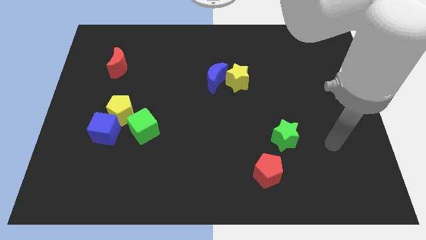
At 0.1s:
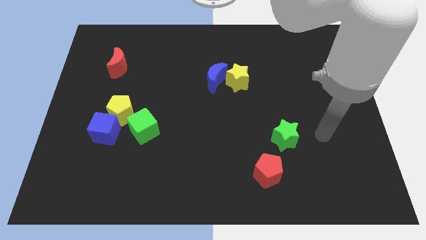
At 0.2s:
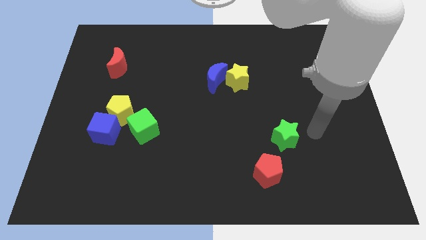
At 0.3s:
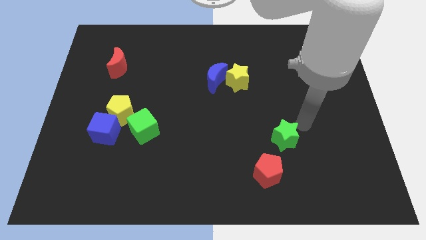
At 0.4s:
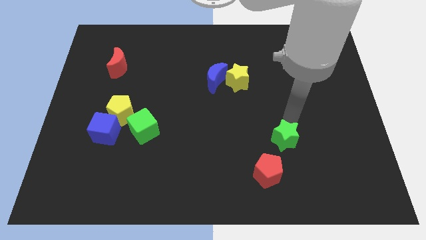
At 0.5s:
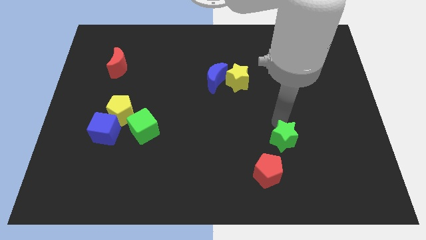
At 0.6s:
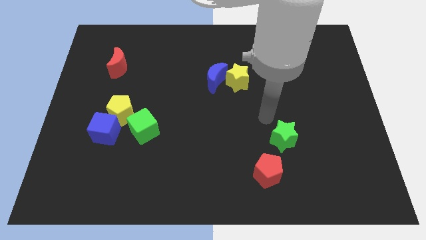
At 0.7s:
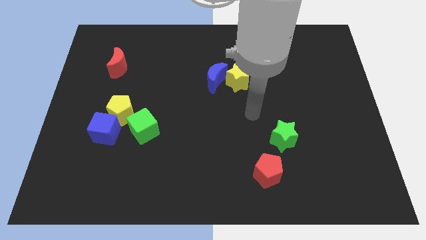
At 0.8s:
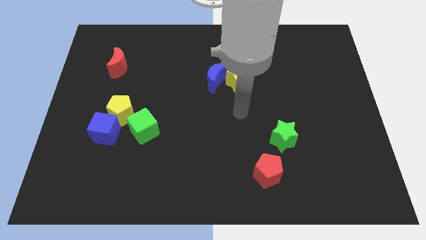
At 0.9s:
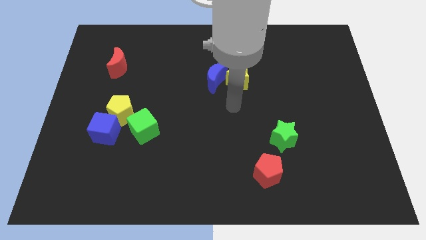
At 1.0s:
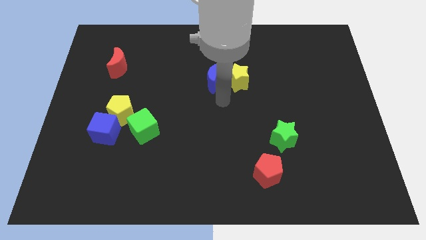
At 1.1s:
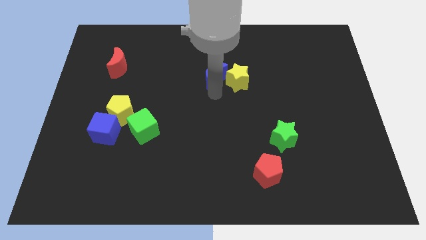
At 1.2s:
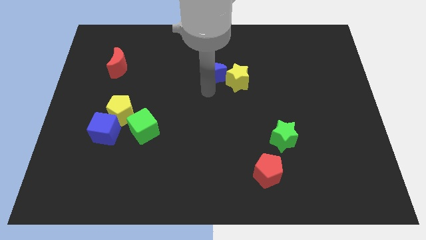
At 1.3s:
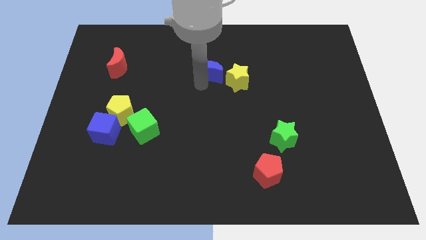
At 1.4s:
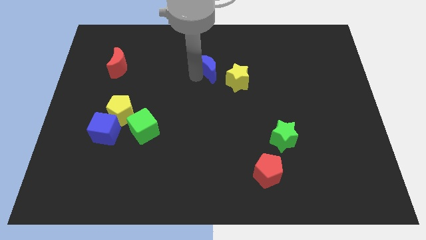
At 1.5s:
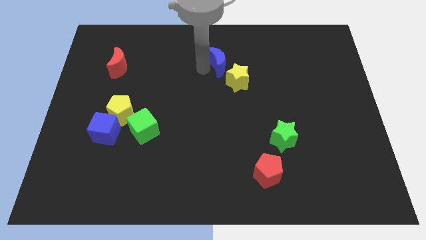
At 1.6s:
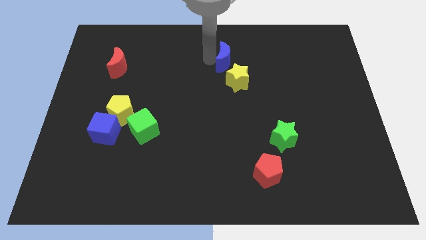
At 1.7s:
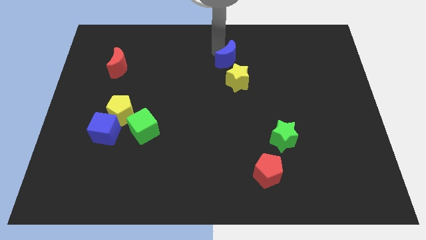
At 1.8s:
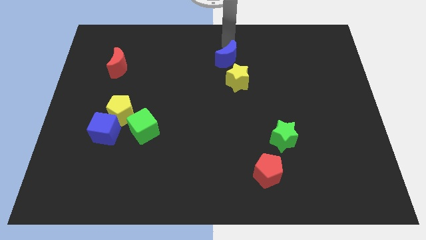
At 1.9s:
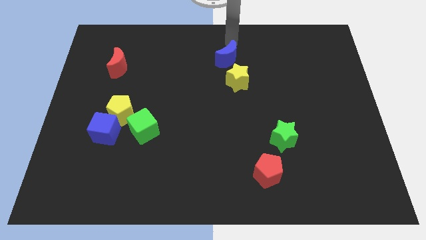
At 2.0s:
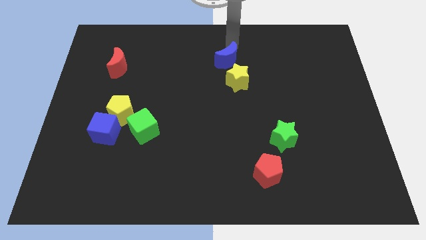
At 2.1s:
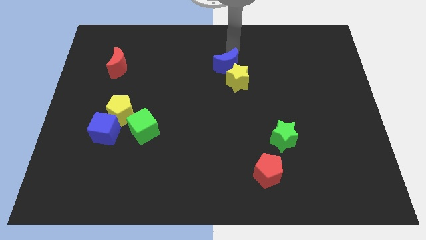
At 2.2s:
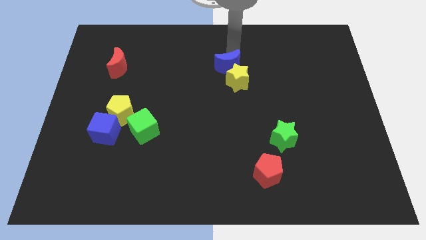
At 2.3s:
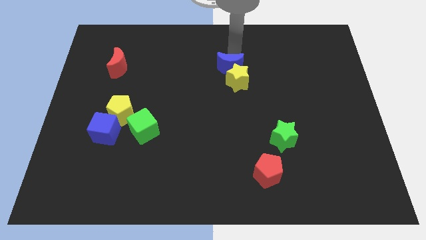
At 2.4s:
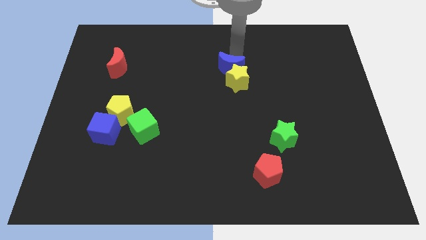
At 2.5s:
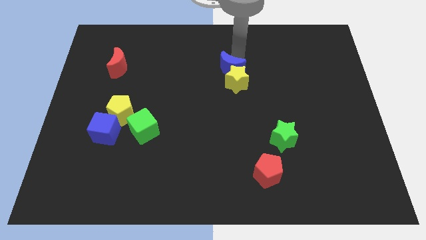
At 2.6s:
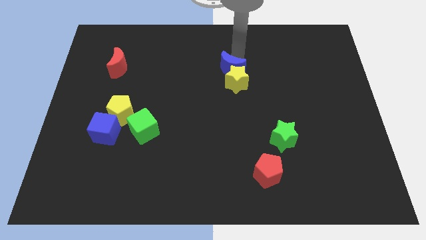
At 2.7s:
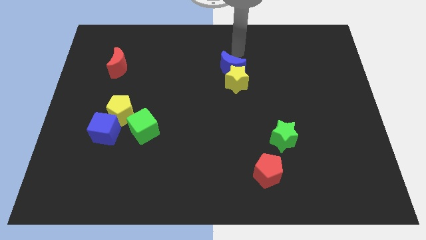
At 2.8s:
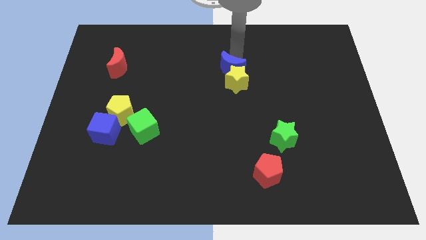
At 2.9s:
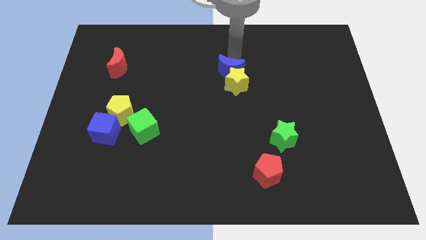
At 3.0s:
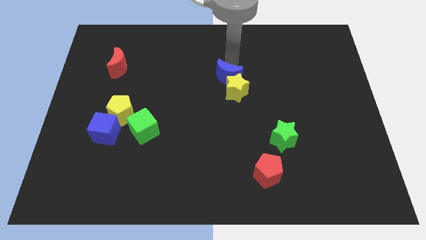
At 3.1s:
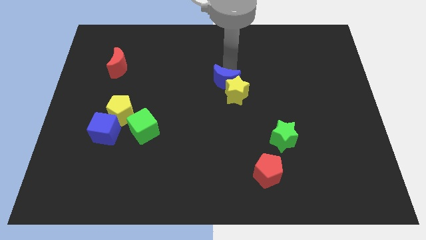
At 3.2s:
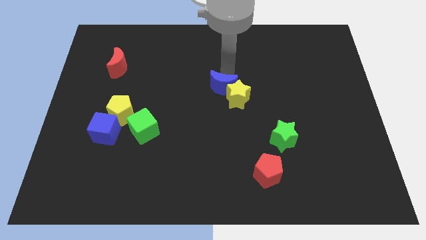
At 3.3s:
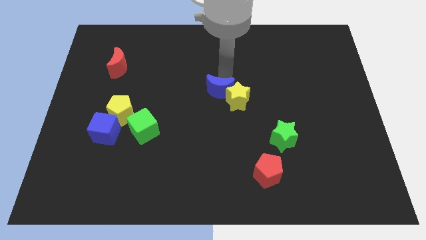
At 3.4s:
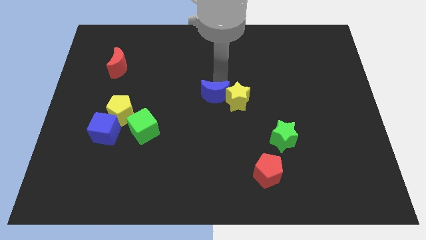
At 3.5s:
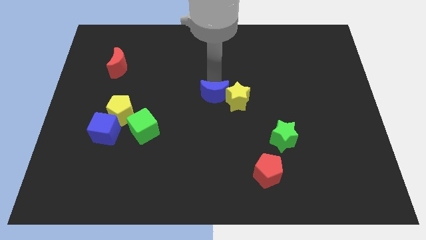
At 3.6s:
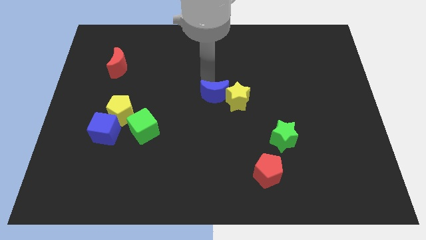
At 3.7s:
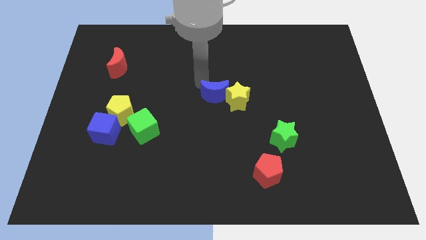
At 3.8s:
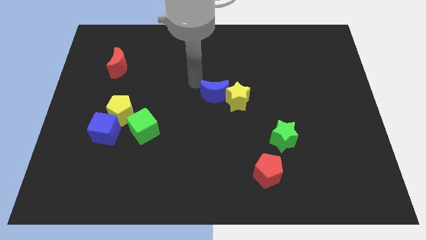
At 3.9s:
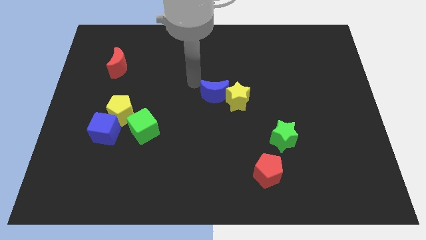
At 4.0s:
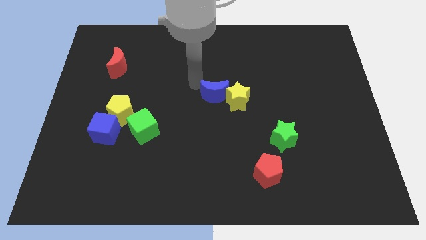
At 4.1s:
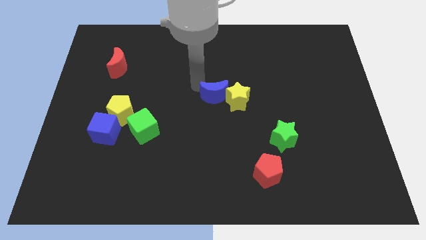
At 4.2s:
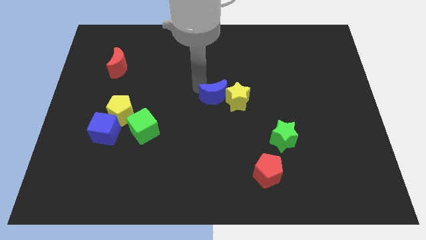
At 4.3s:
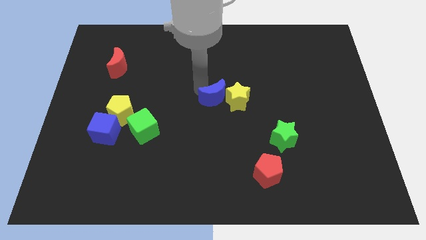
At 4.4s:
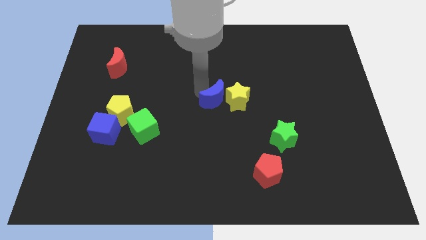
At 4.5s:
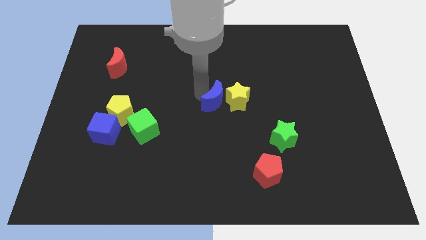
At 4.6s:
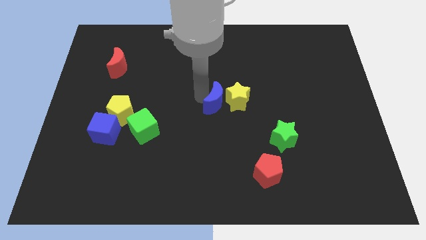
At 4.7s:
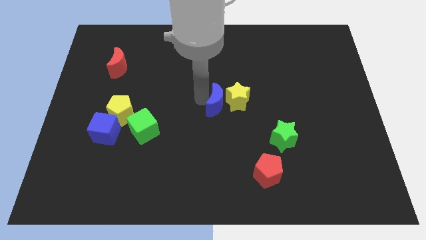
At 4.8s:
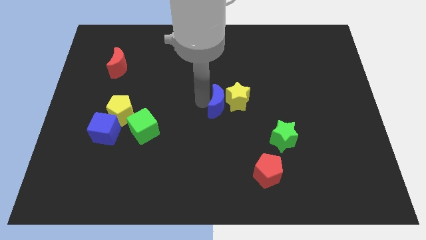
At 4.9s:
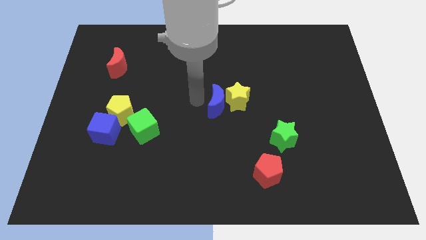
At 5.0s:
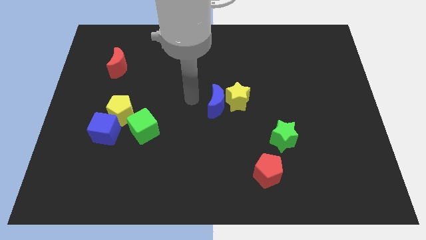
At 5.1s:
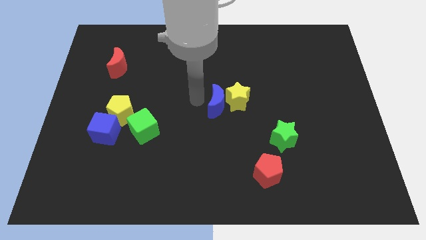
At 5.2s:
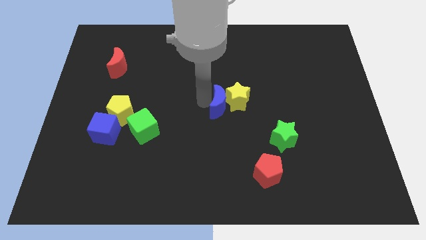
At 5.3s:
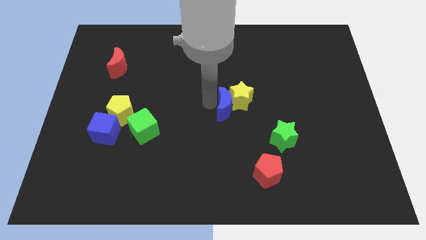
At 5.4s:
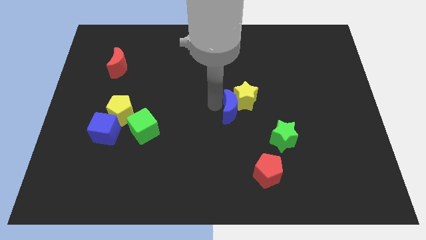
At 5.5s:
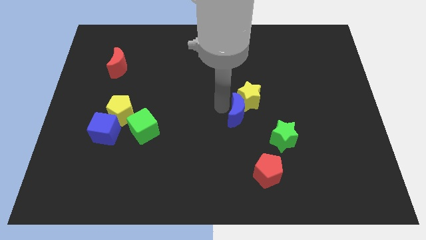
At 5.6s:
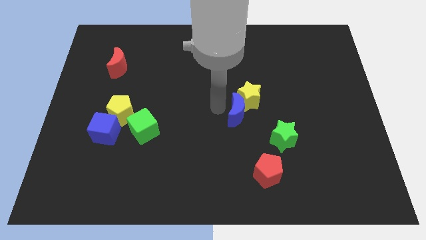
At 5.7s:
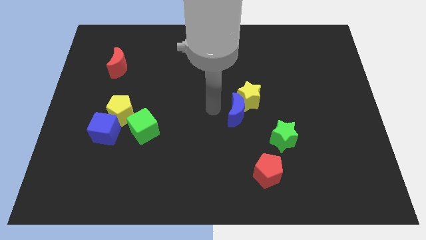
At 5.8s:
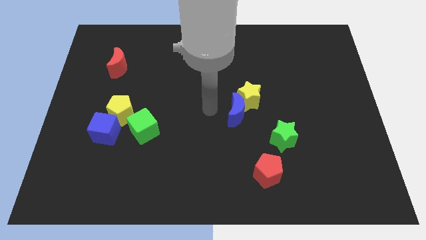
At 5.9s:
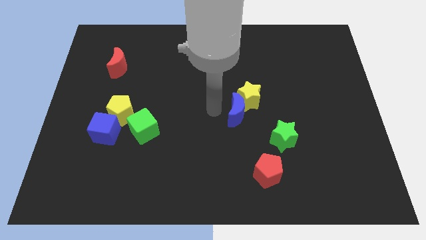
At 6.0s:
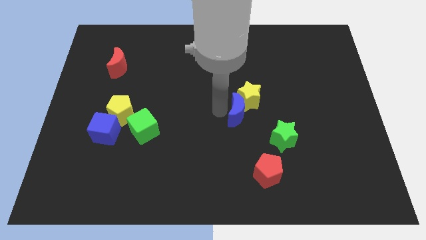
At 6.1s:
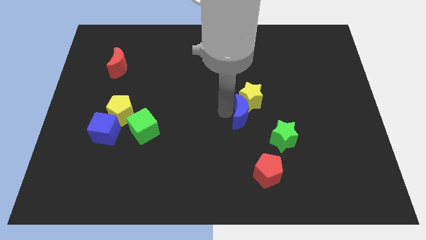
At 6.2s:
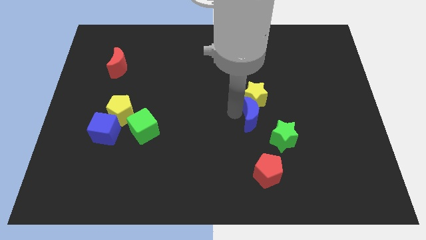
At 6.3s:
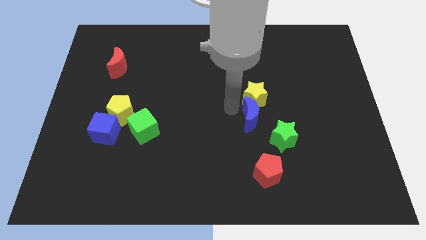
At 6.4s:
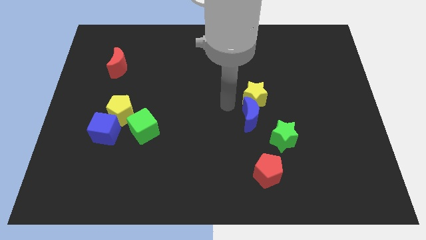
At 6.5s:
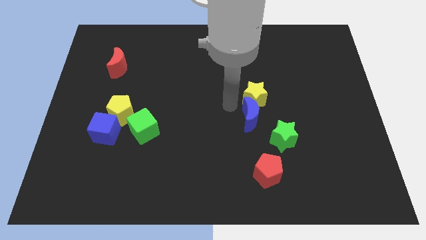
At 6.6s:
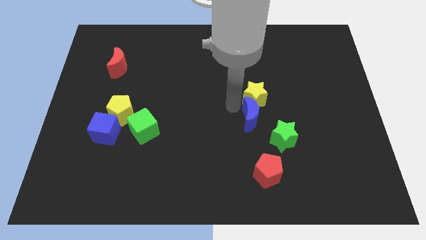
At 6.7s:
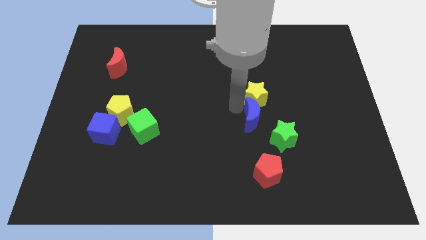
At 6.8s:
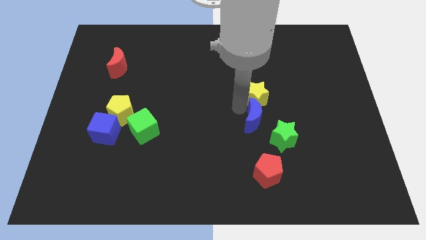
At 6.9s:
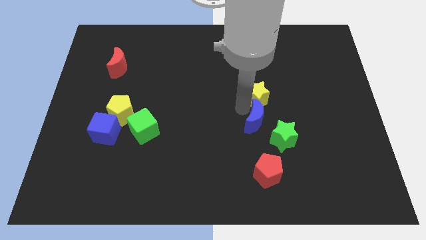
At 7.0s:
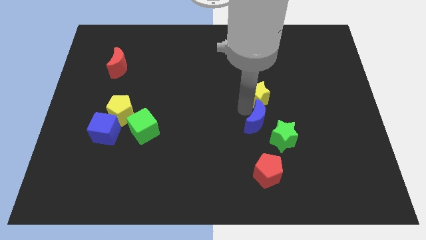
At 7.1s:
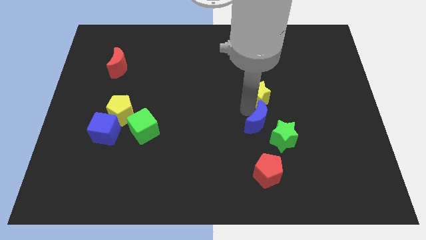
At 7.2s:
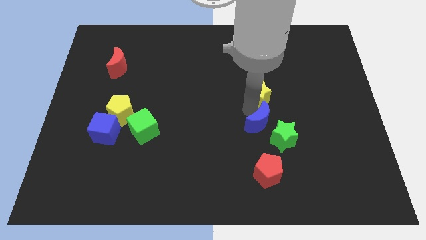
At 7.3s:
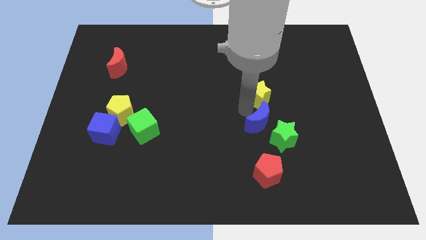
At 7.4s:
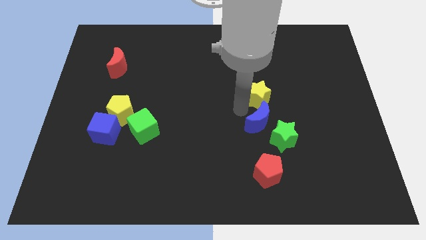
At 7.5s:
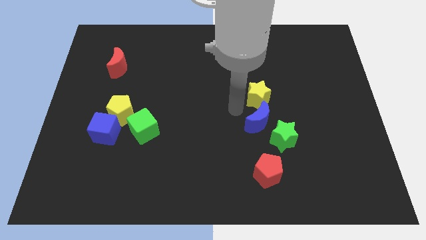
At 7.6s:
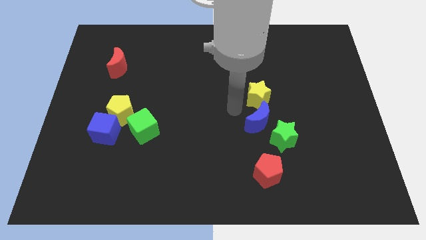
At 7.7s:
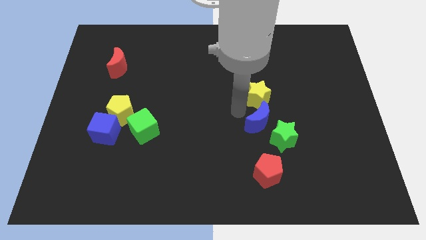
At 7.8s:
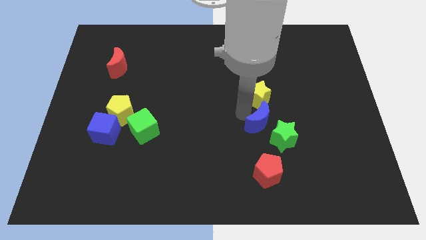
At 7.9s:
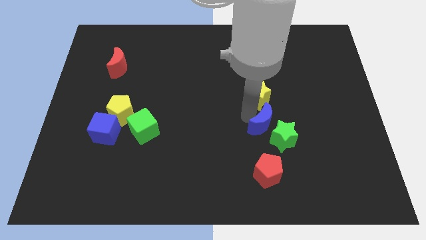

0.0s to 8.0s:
push the blue moon close to the green star
